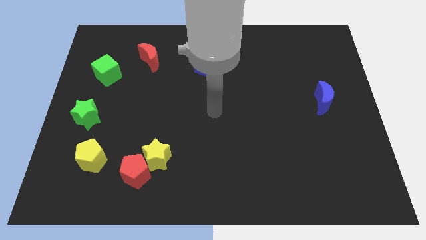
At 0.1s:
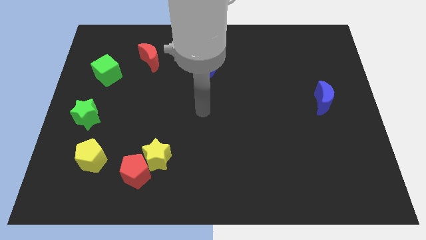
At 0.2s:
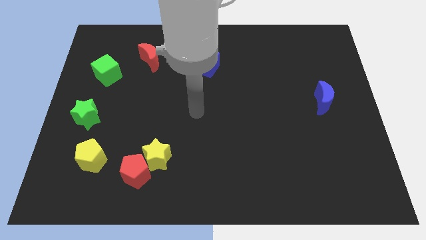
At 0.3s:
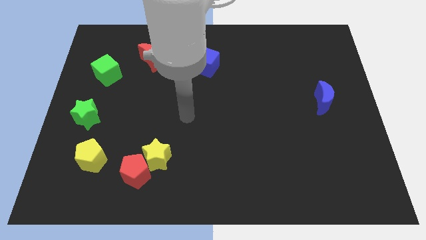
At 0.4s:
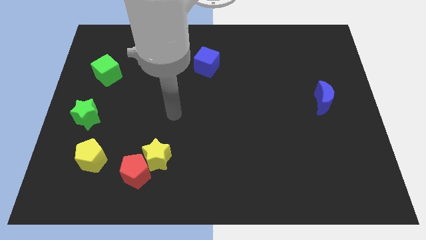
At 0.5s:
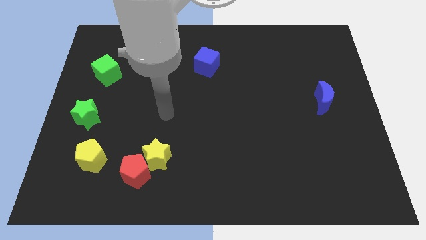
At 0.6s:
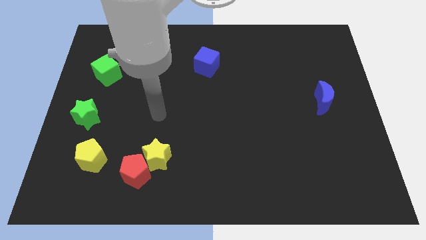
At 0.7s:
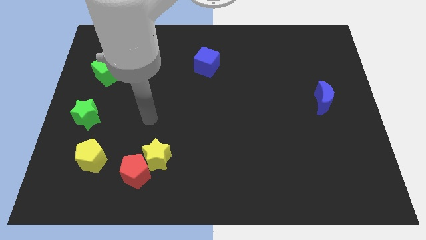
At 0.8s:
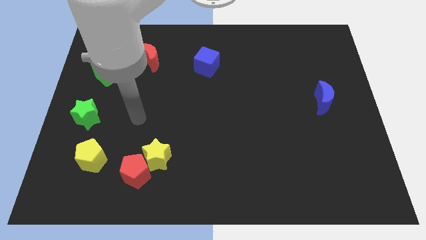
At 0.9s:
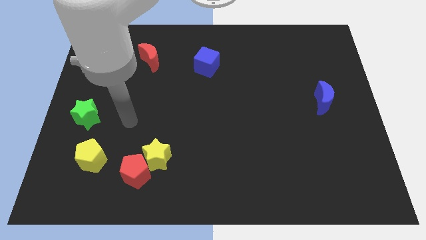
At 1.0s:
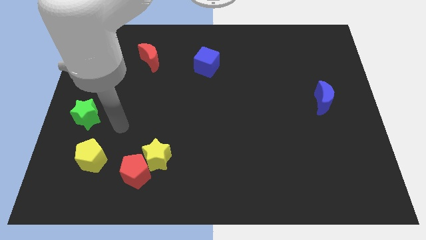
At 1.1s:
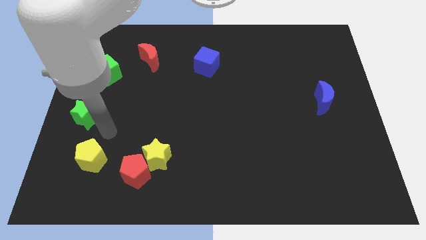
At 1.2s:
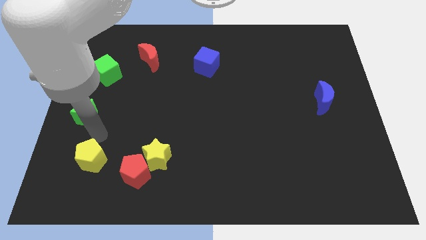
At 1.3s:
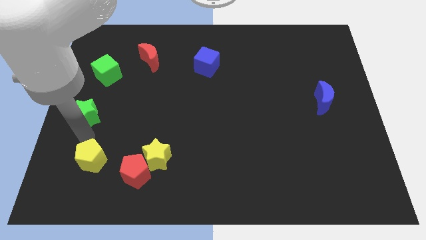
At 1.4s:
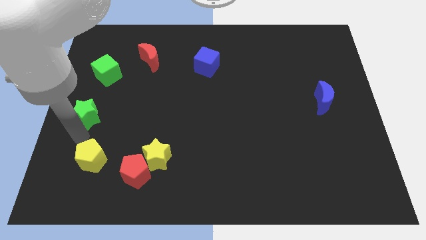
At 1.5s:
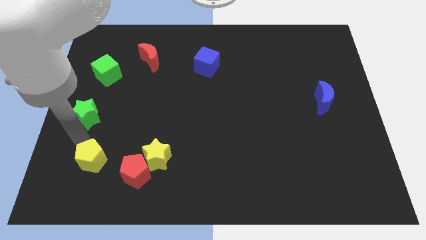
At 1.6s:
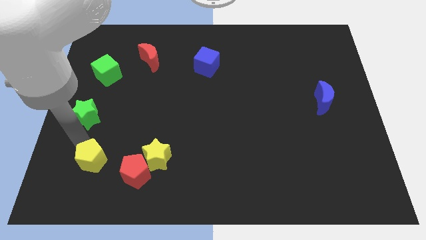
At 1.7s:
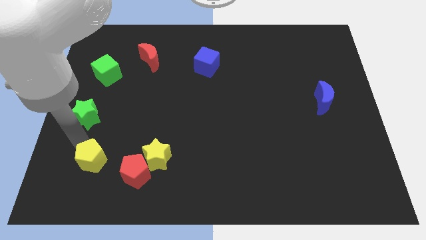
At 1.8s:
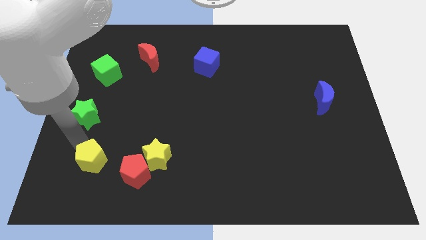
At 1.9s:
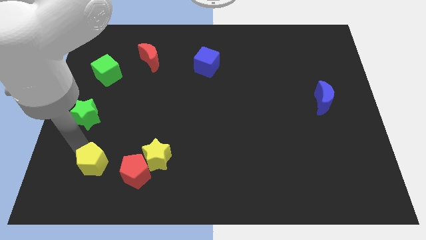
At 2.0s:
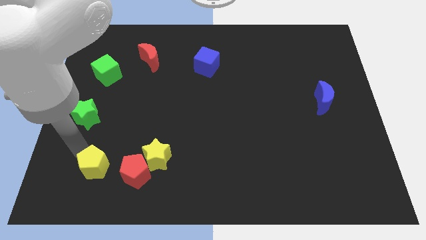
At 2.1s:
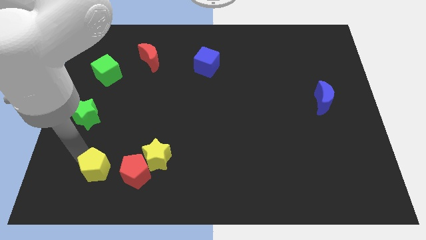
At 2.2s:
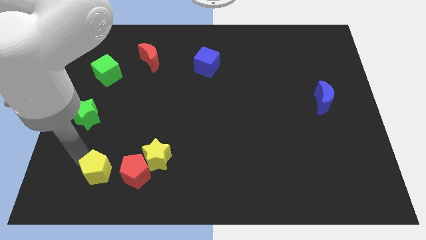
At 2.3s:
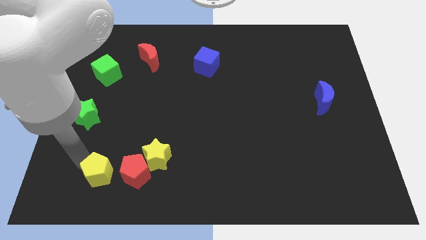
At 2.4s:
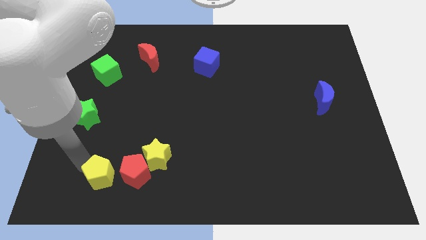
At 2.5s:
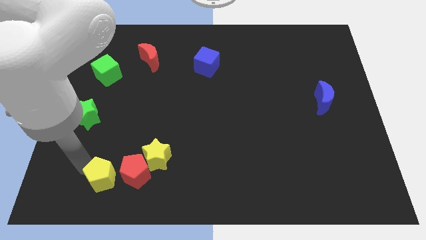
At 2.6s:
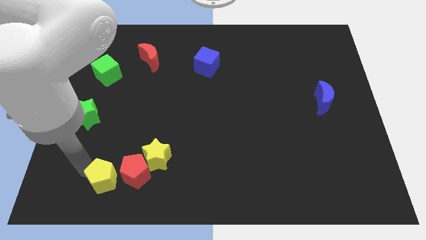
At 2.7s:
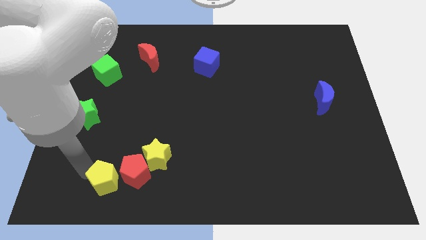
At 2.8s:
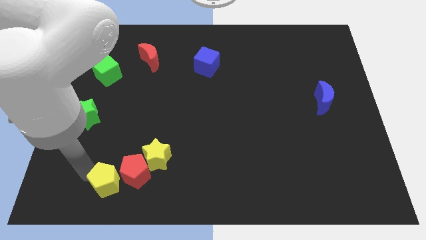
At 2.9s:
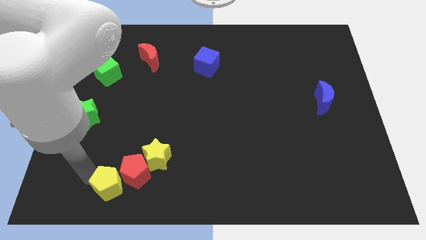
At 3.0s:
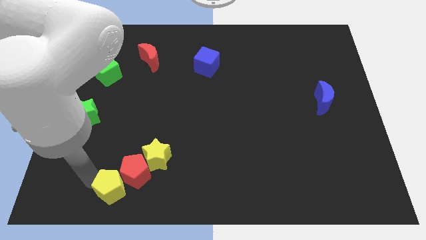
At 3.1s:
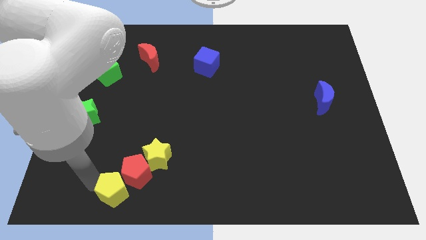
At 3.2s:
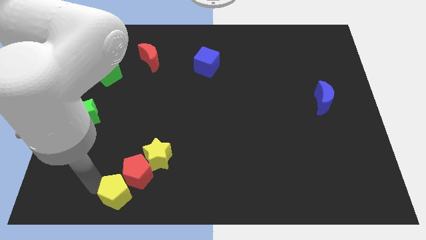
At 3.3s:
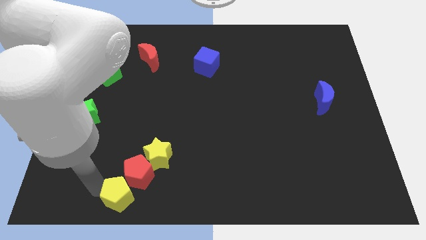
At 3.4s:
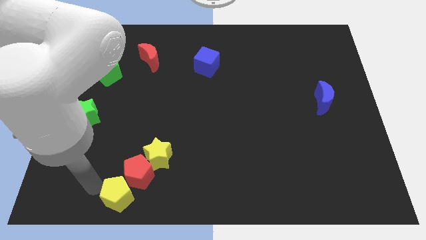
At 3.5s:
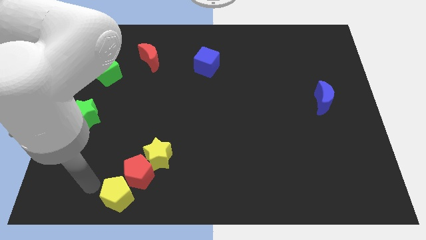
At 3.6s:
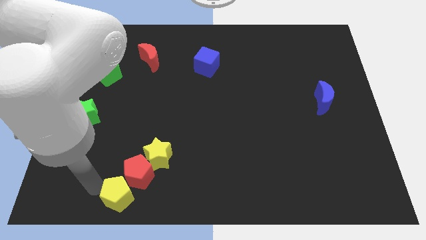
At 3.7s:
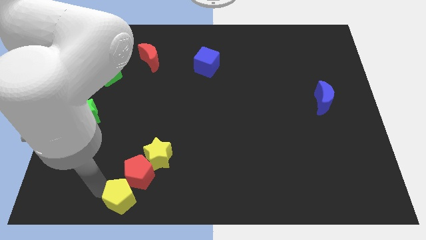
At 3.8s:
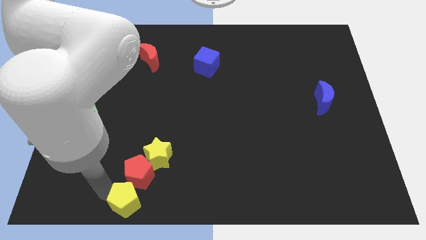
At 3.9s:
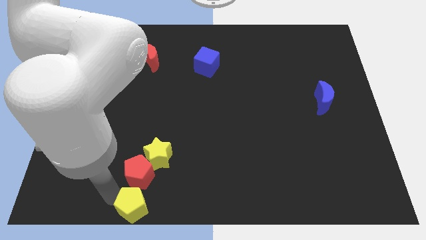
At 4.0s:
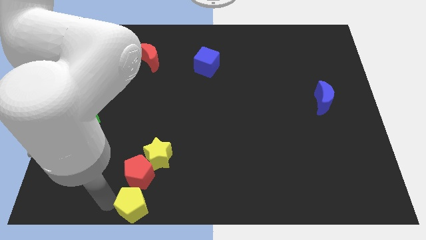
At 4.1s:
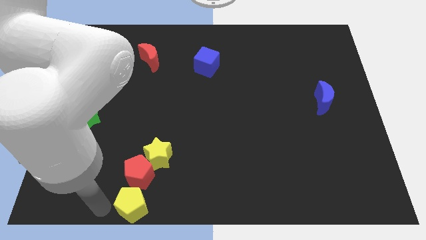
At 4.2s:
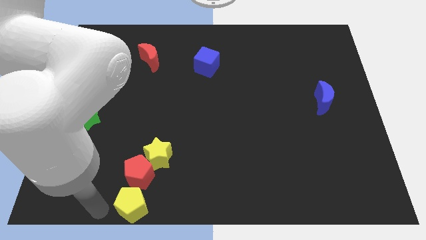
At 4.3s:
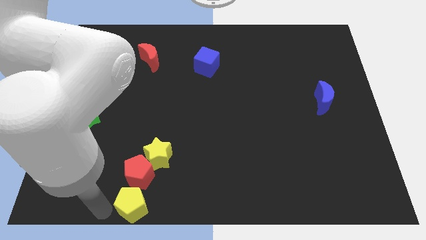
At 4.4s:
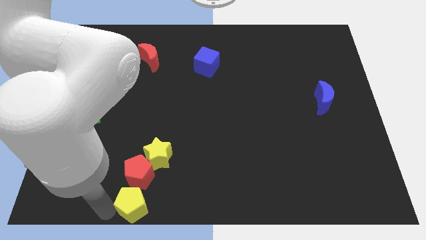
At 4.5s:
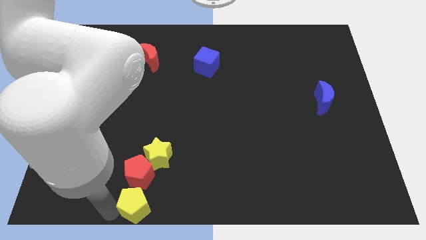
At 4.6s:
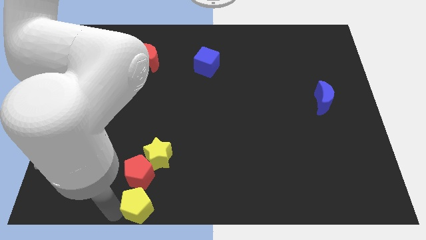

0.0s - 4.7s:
put the yellow pentagon to the bottom side

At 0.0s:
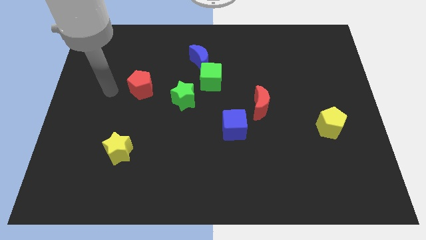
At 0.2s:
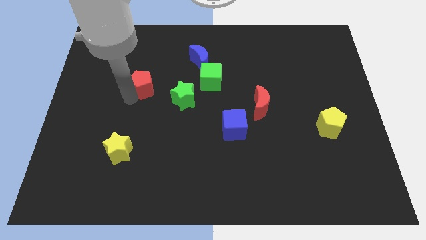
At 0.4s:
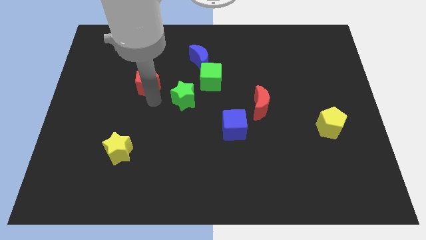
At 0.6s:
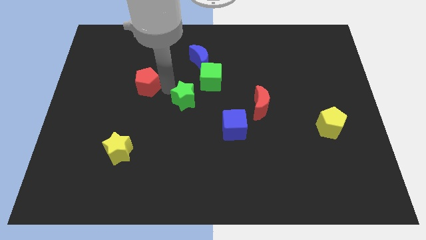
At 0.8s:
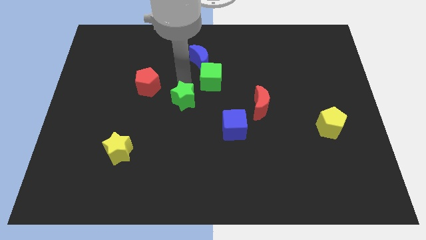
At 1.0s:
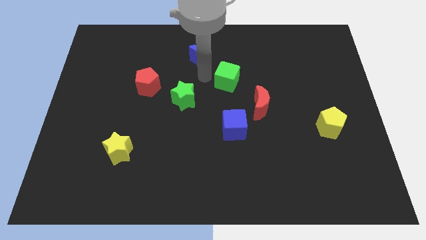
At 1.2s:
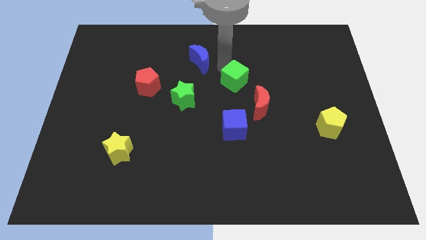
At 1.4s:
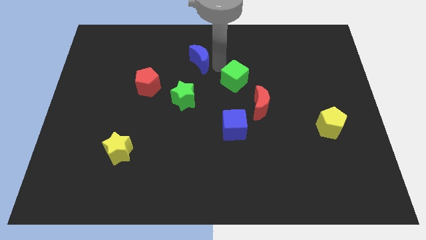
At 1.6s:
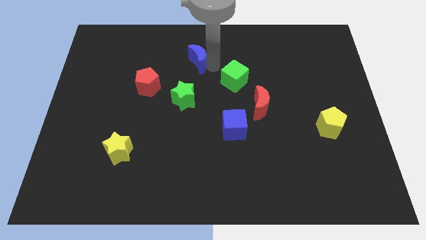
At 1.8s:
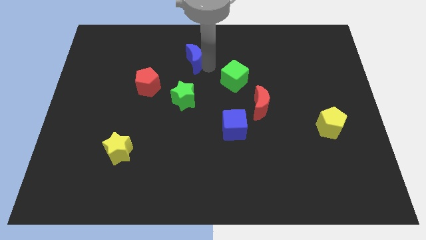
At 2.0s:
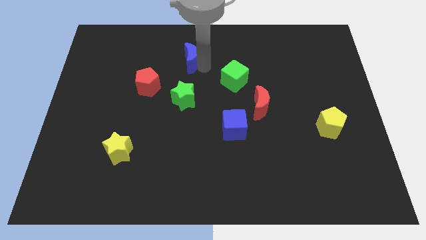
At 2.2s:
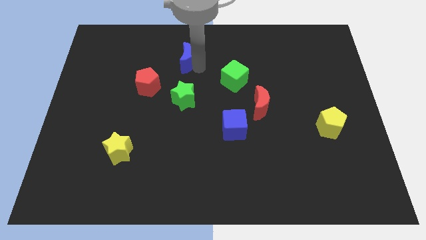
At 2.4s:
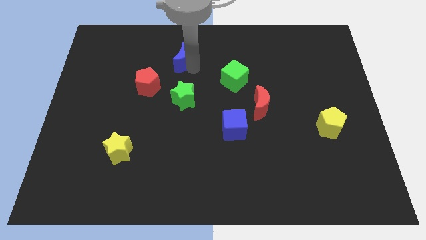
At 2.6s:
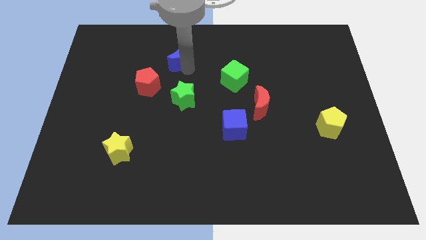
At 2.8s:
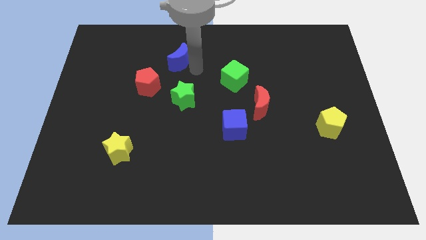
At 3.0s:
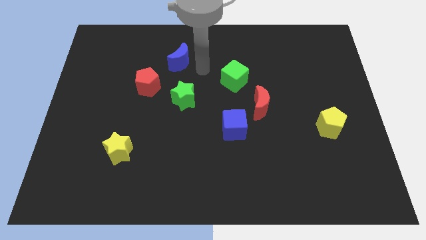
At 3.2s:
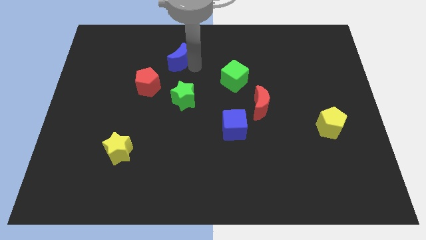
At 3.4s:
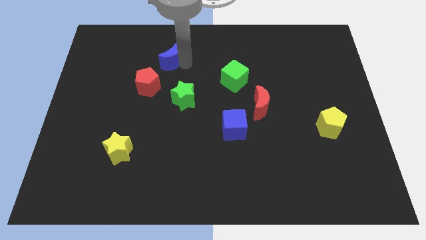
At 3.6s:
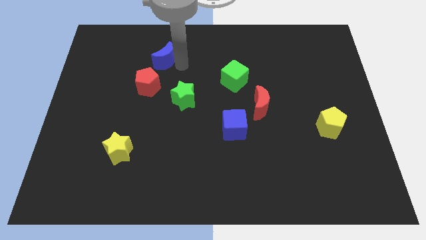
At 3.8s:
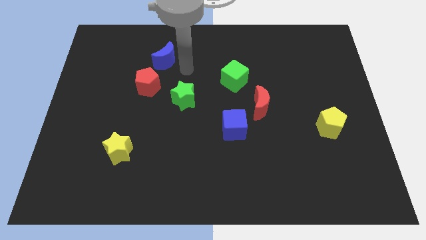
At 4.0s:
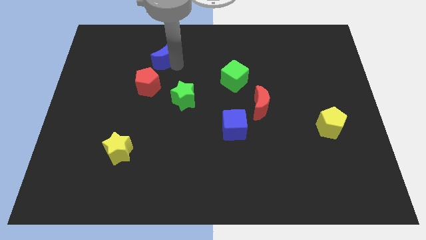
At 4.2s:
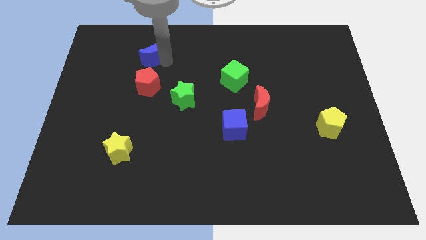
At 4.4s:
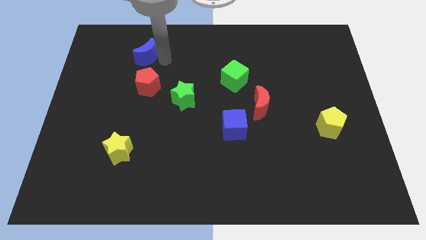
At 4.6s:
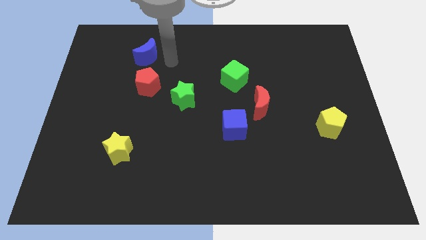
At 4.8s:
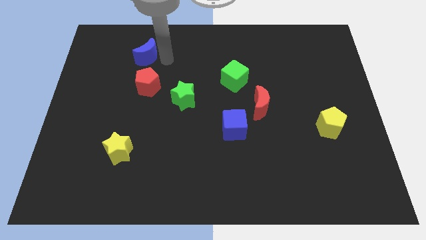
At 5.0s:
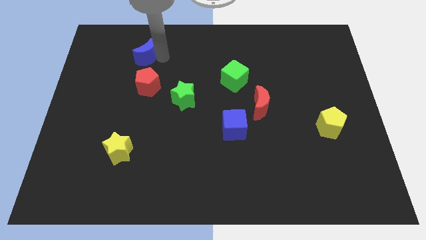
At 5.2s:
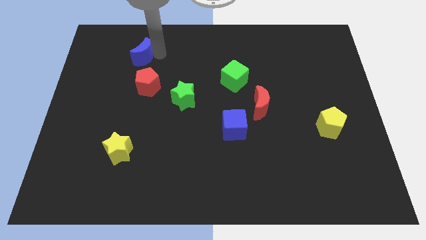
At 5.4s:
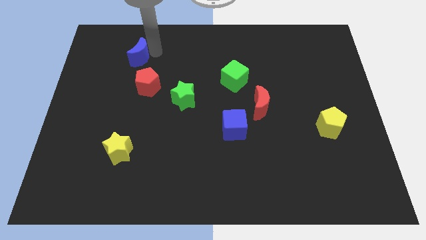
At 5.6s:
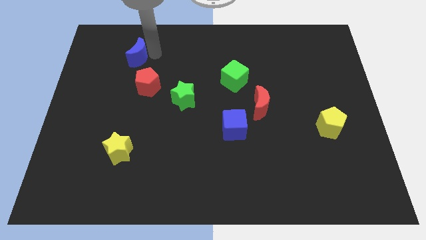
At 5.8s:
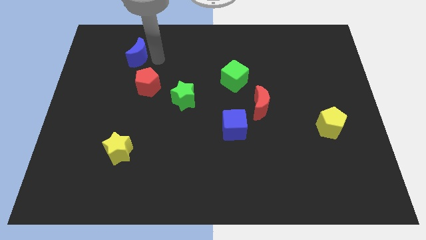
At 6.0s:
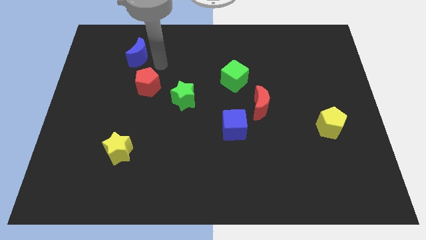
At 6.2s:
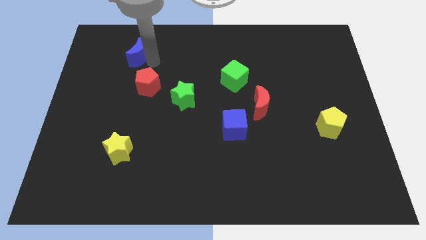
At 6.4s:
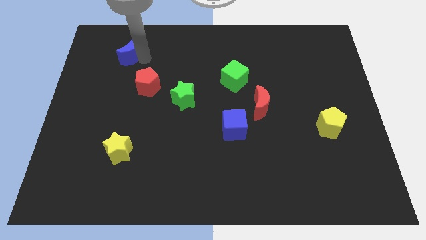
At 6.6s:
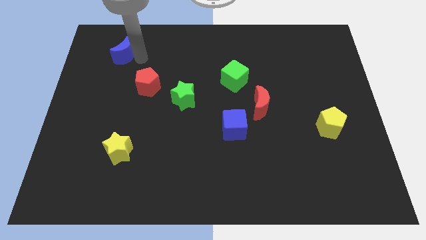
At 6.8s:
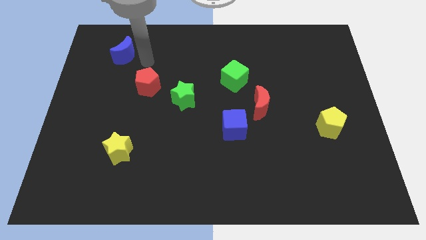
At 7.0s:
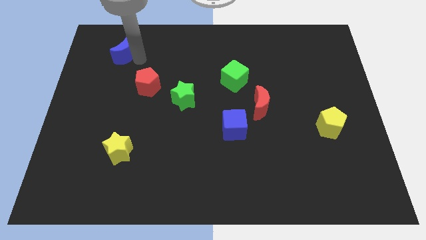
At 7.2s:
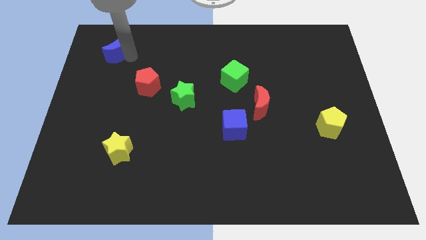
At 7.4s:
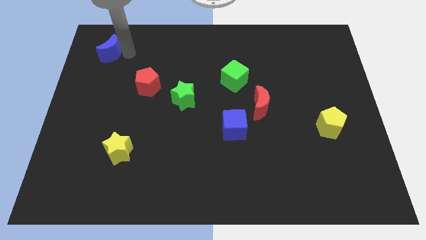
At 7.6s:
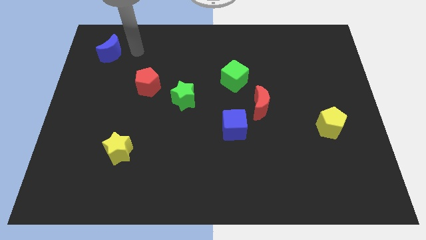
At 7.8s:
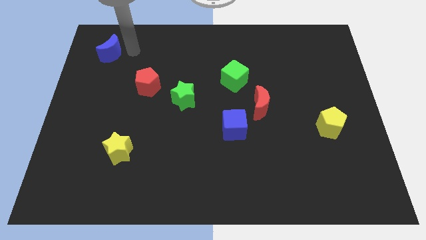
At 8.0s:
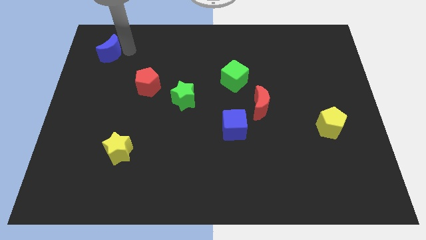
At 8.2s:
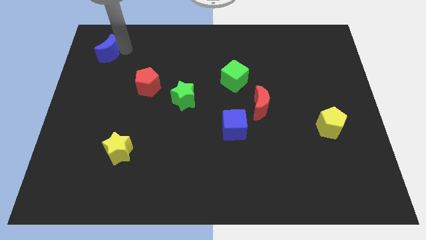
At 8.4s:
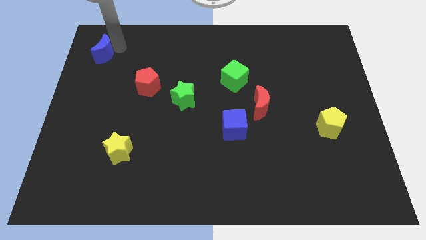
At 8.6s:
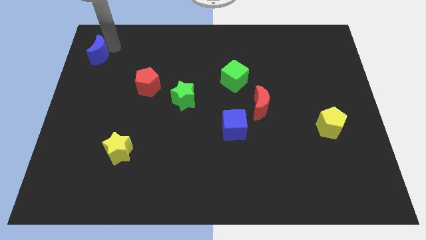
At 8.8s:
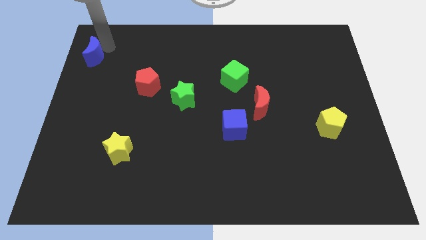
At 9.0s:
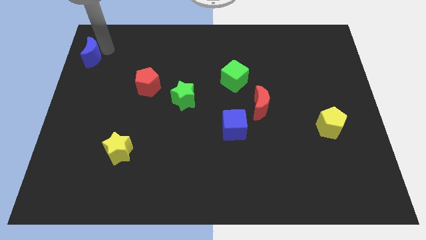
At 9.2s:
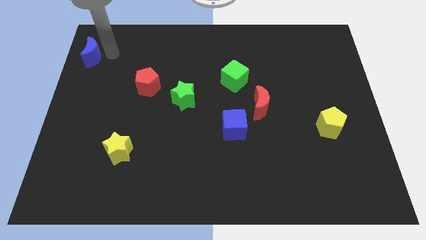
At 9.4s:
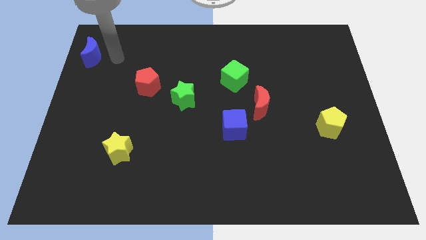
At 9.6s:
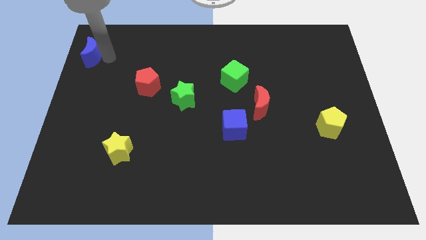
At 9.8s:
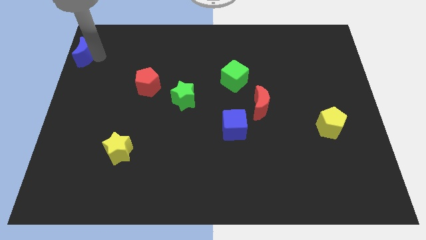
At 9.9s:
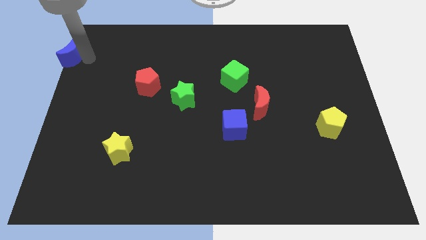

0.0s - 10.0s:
move the blue moon to the top left of the board
